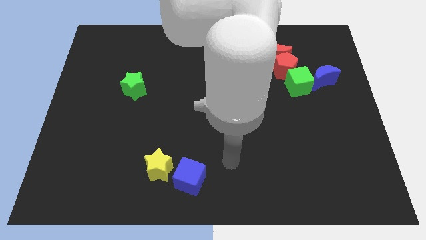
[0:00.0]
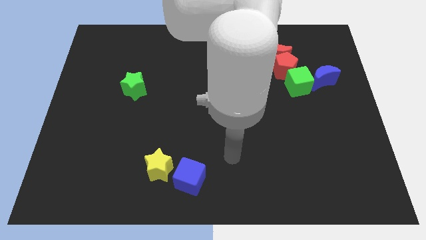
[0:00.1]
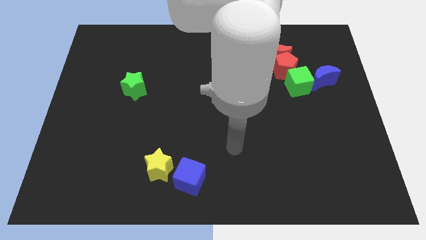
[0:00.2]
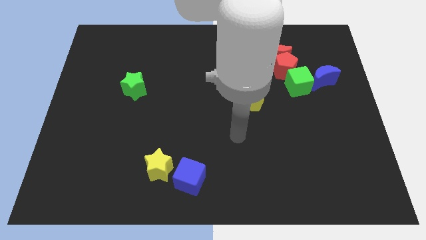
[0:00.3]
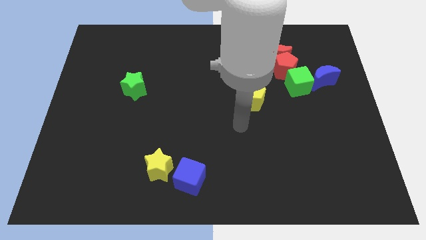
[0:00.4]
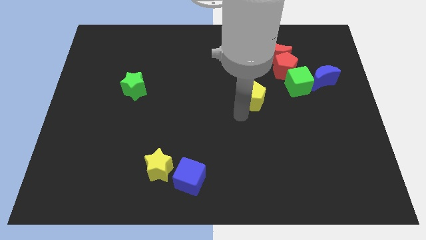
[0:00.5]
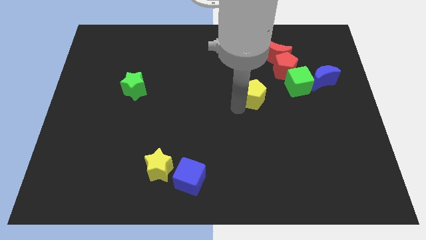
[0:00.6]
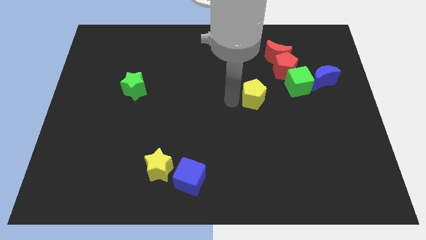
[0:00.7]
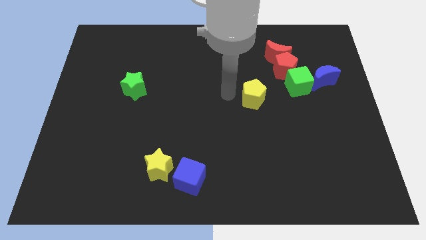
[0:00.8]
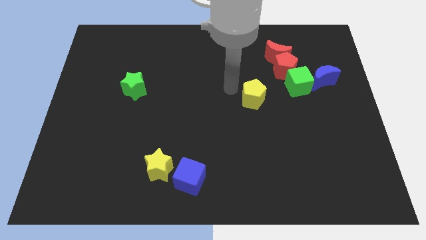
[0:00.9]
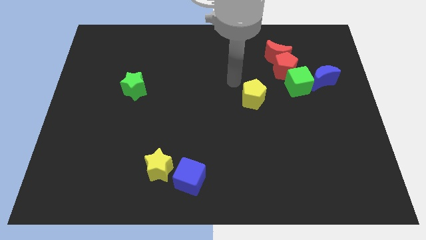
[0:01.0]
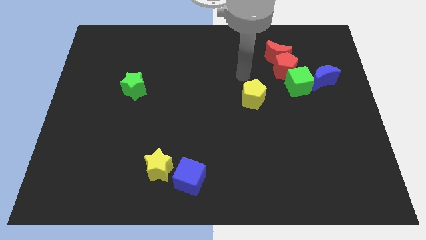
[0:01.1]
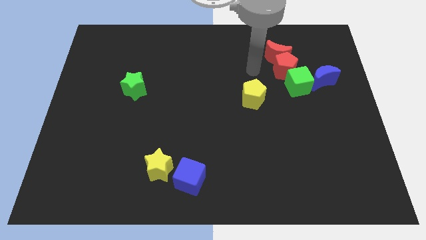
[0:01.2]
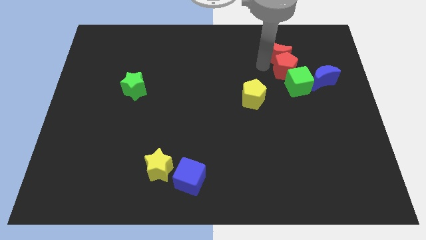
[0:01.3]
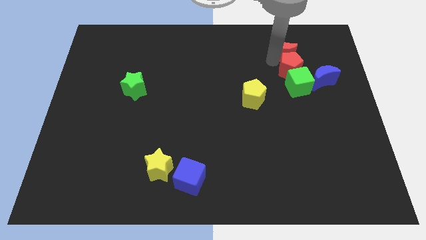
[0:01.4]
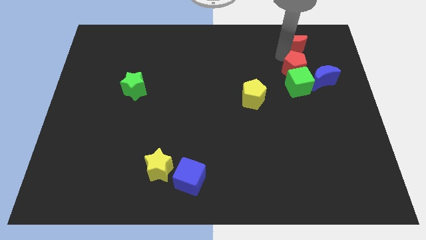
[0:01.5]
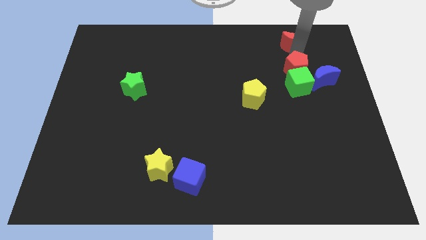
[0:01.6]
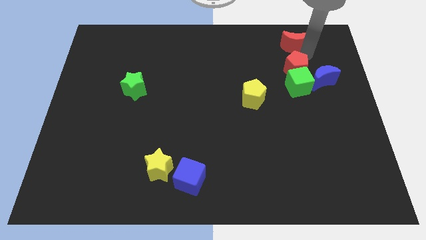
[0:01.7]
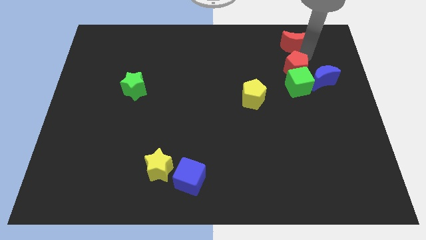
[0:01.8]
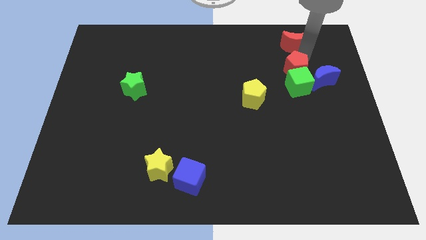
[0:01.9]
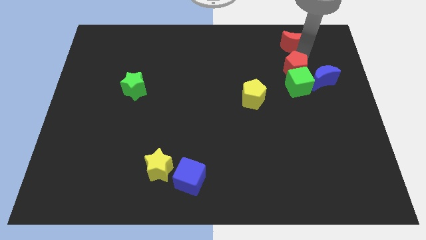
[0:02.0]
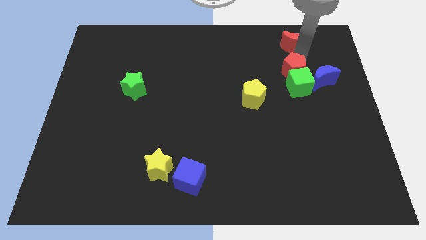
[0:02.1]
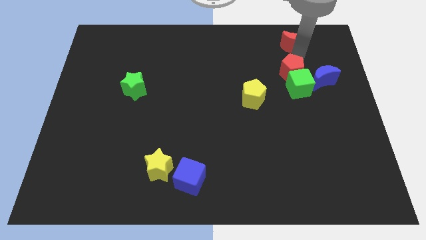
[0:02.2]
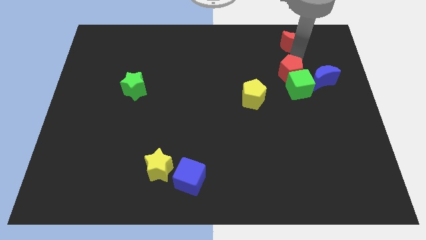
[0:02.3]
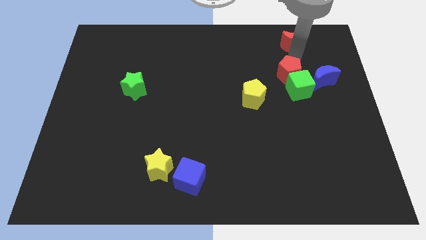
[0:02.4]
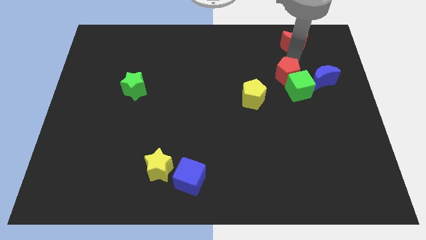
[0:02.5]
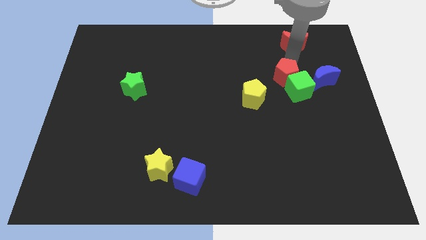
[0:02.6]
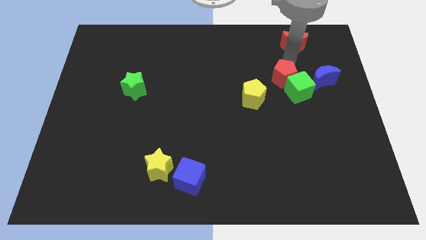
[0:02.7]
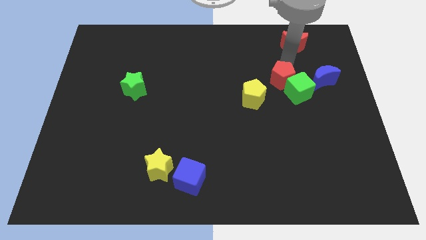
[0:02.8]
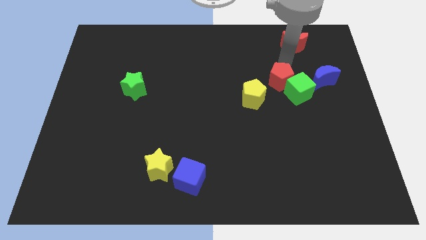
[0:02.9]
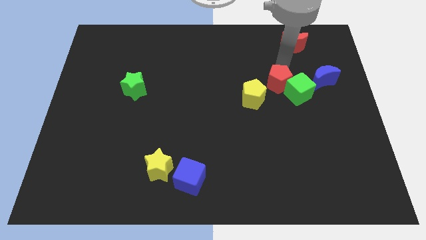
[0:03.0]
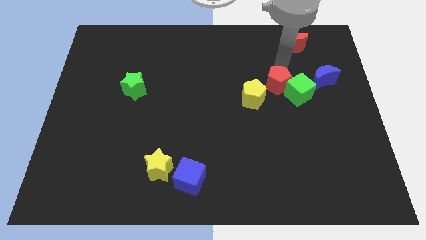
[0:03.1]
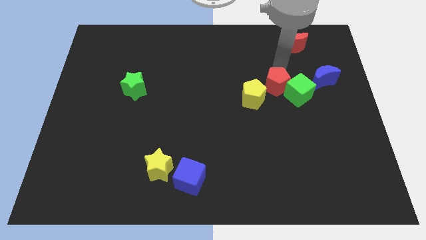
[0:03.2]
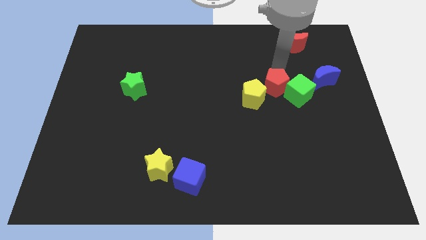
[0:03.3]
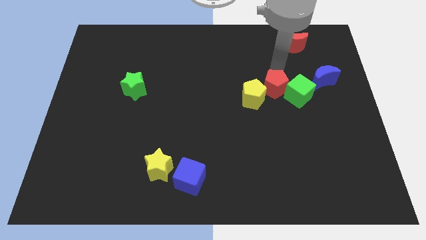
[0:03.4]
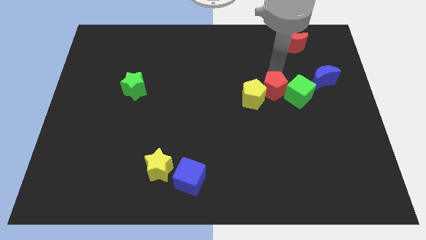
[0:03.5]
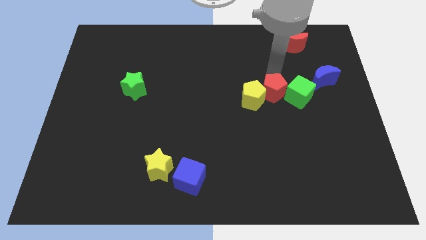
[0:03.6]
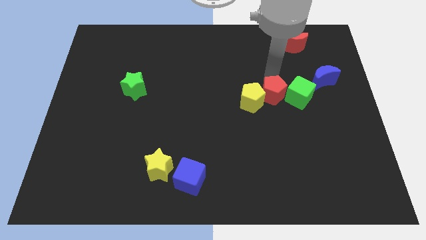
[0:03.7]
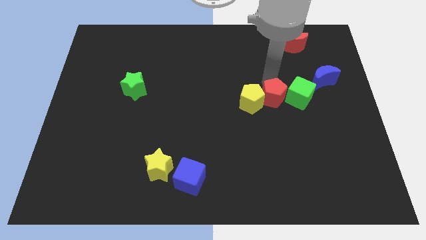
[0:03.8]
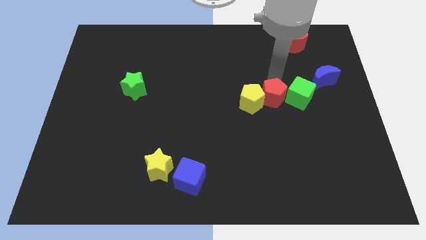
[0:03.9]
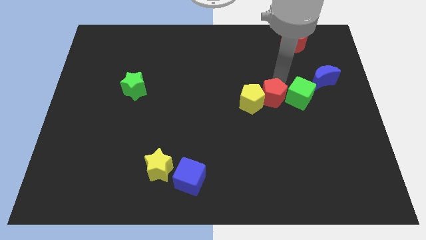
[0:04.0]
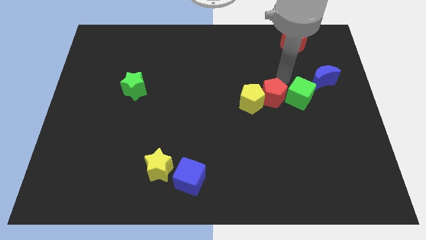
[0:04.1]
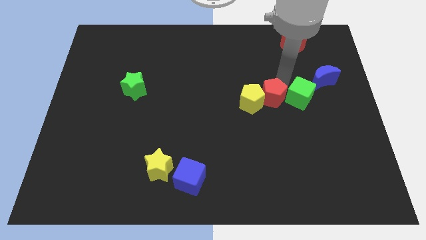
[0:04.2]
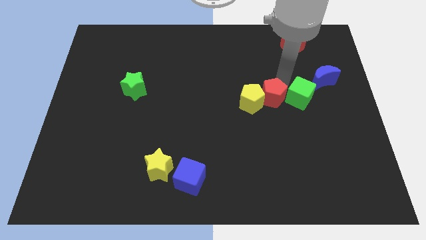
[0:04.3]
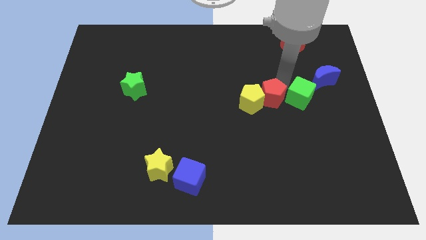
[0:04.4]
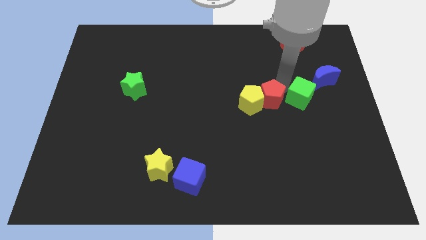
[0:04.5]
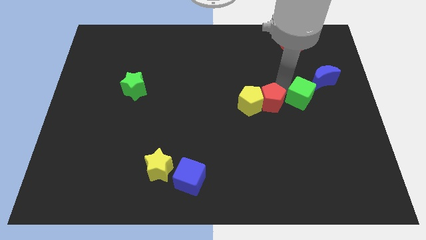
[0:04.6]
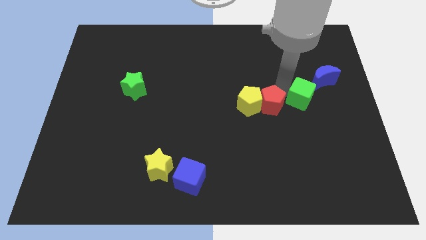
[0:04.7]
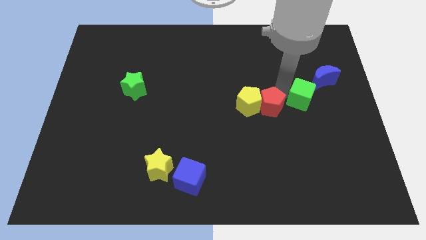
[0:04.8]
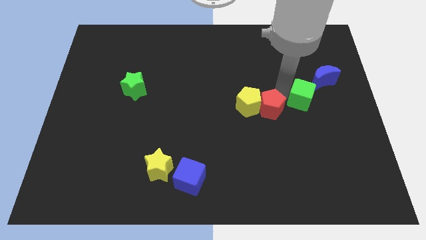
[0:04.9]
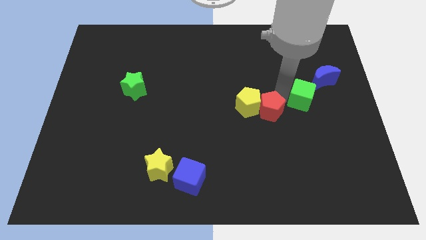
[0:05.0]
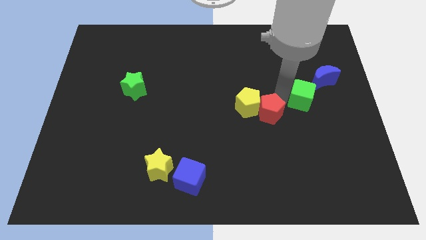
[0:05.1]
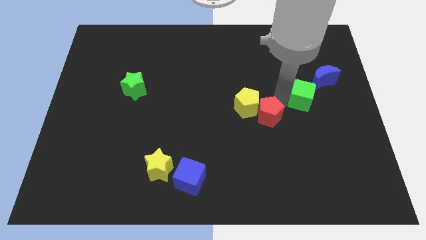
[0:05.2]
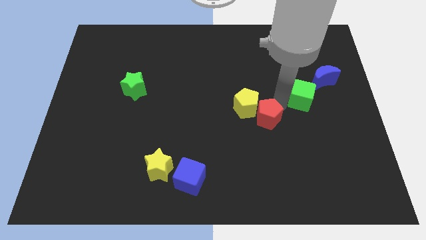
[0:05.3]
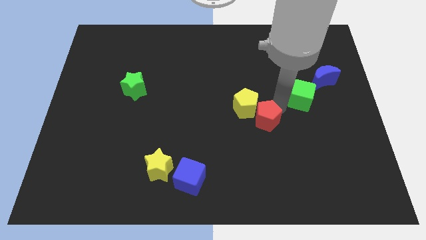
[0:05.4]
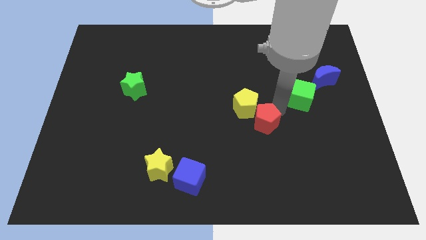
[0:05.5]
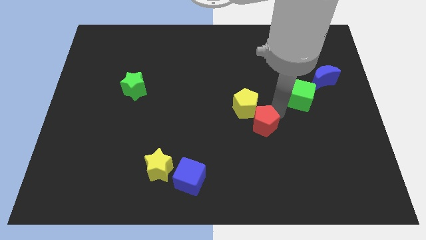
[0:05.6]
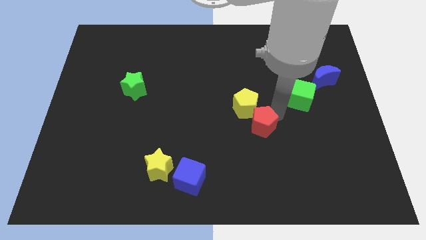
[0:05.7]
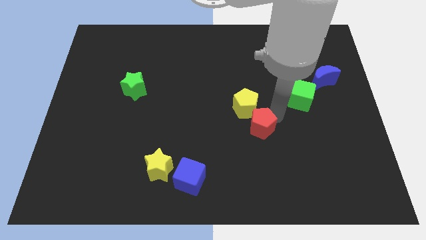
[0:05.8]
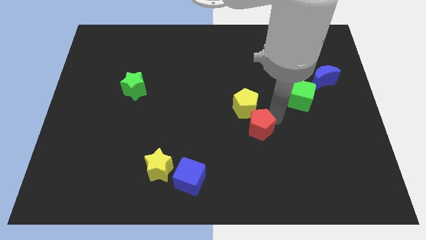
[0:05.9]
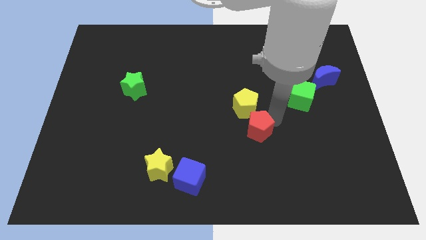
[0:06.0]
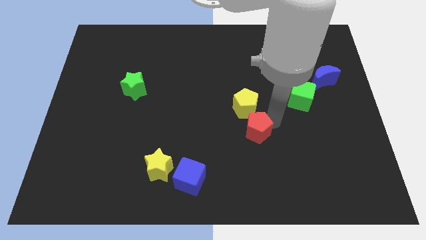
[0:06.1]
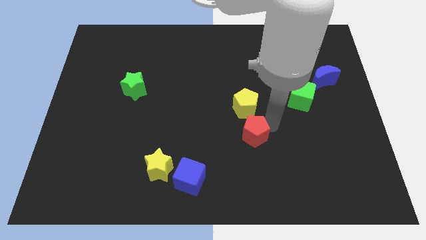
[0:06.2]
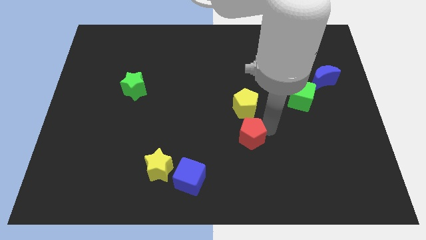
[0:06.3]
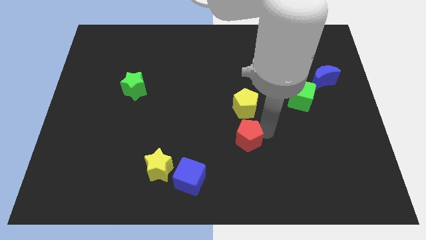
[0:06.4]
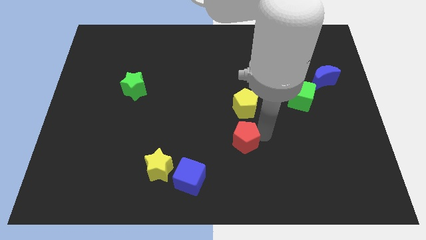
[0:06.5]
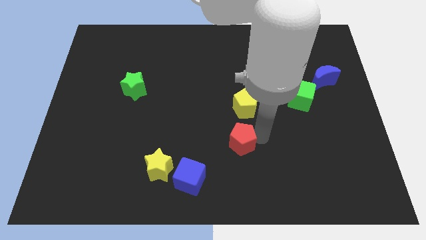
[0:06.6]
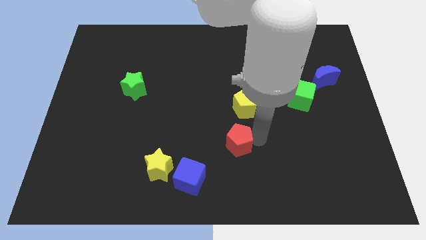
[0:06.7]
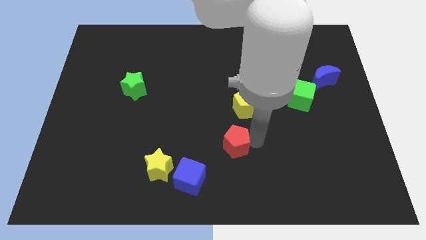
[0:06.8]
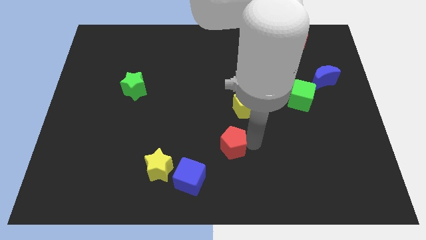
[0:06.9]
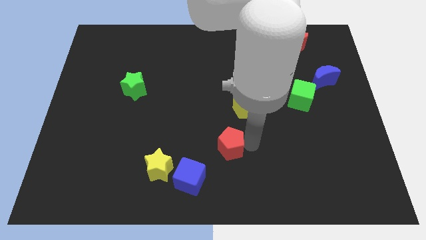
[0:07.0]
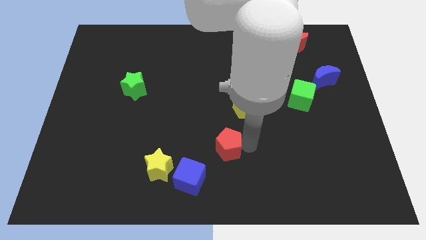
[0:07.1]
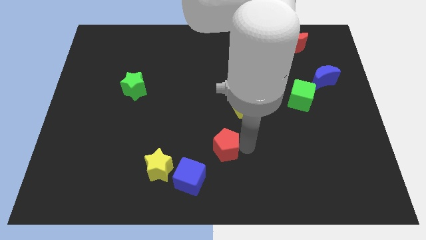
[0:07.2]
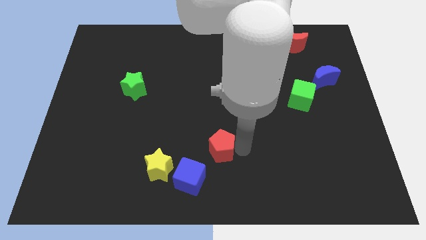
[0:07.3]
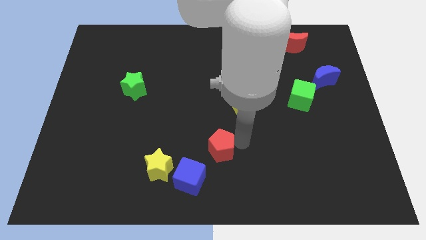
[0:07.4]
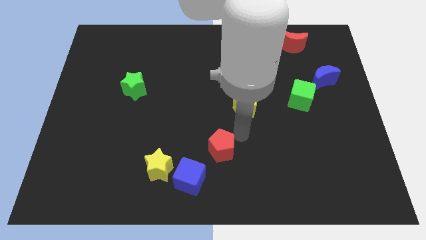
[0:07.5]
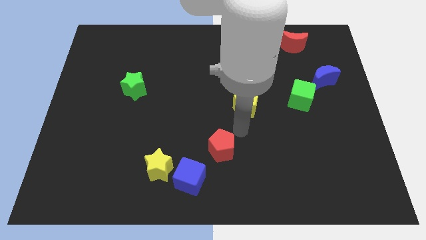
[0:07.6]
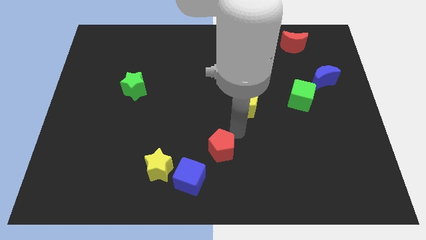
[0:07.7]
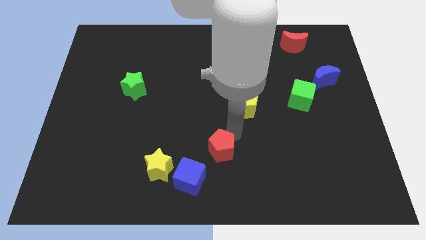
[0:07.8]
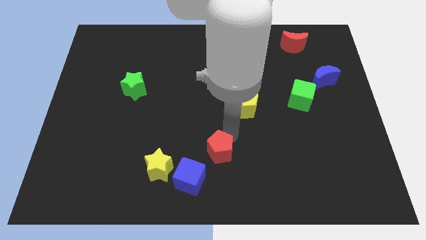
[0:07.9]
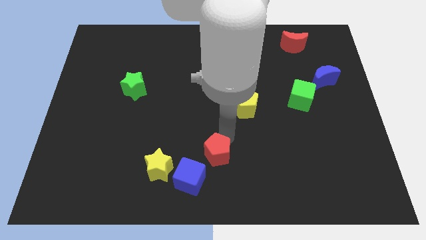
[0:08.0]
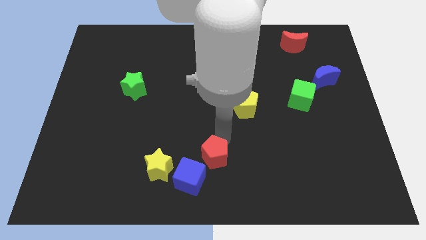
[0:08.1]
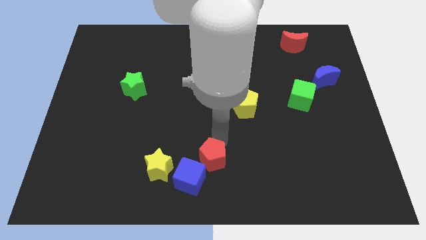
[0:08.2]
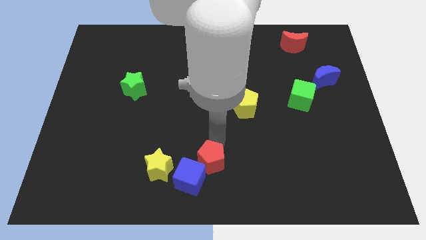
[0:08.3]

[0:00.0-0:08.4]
put the red pentagon next to the blue cube

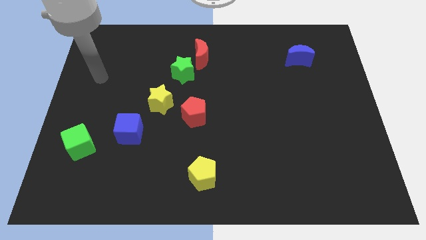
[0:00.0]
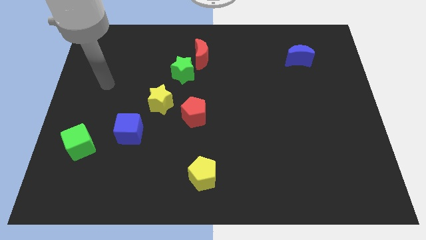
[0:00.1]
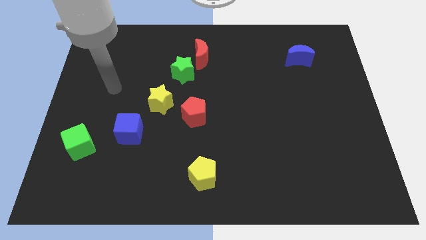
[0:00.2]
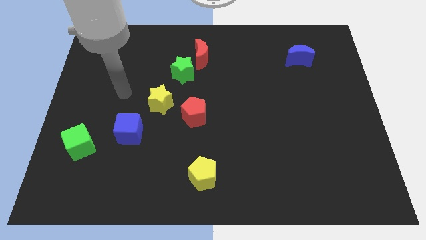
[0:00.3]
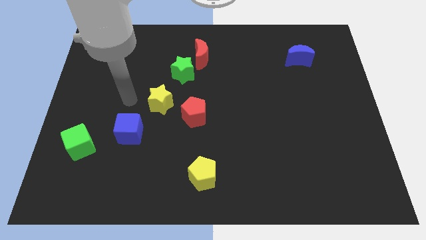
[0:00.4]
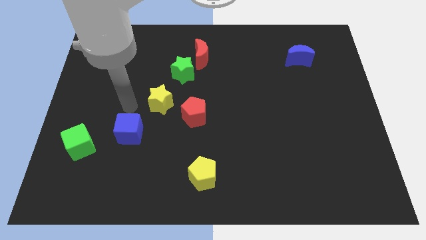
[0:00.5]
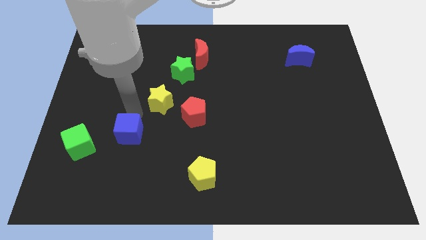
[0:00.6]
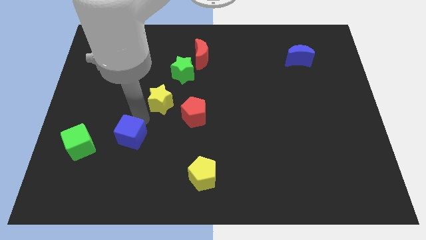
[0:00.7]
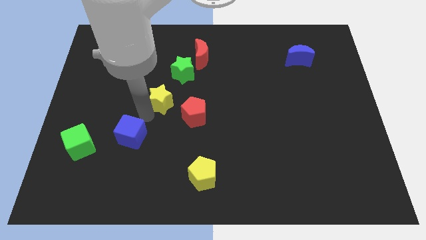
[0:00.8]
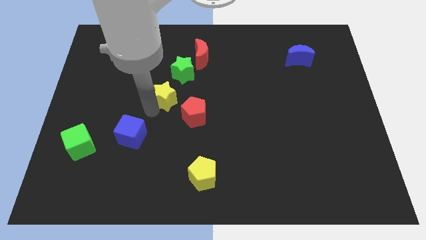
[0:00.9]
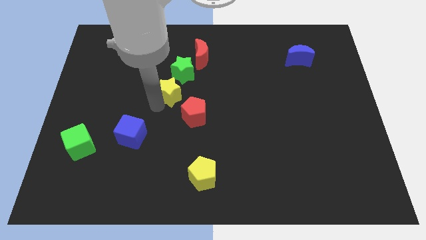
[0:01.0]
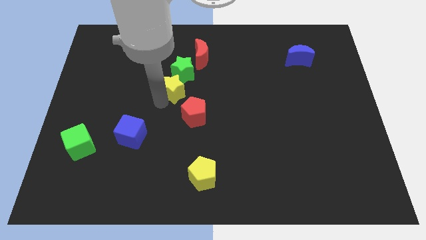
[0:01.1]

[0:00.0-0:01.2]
slide the yellow star to the green star
